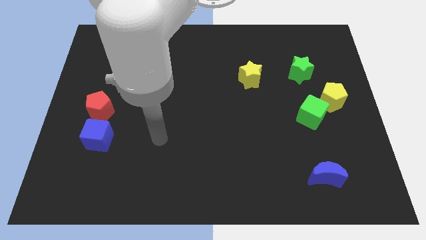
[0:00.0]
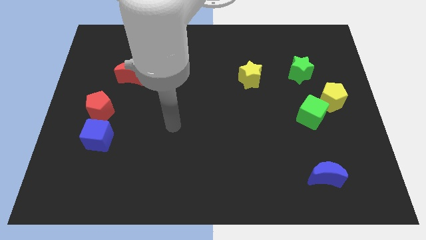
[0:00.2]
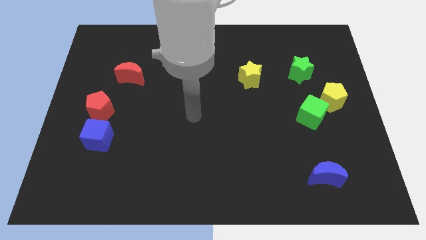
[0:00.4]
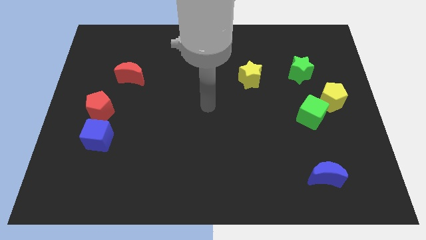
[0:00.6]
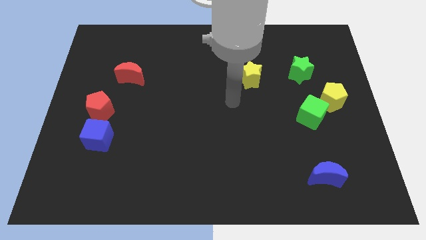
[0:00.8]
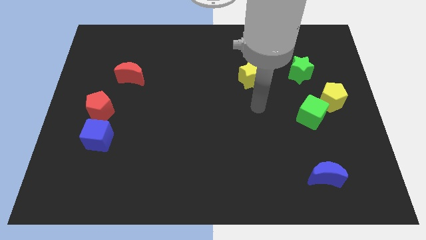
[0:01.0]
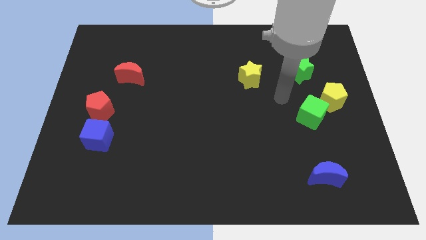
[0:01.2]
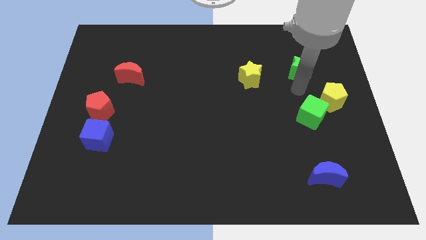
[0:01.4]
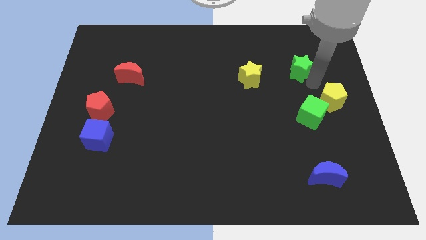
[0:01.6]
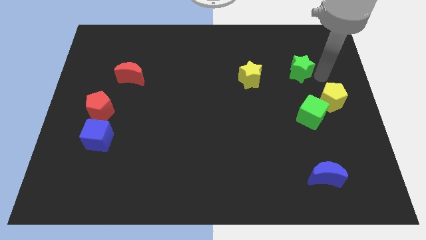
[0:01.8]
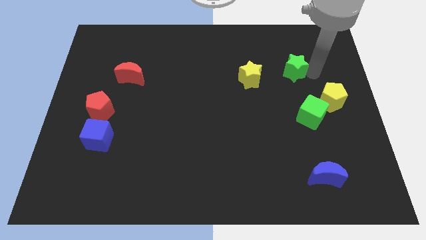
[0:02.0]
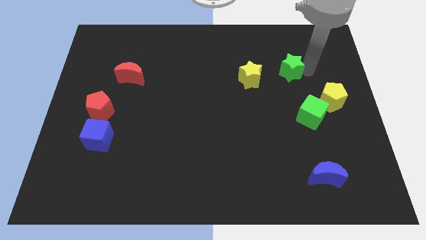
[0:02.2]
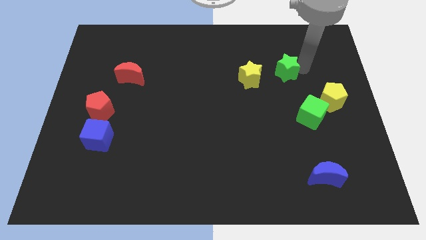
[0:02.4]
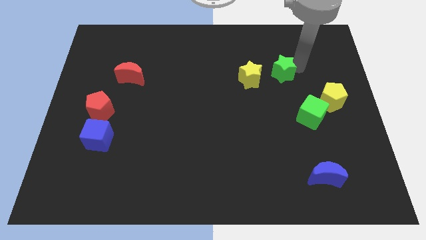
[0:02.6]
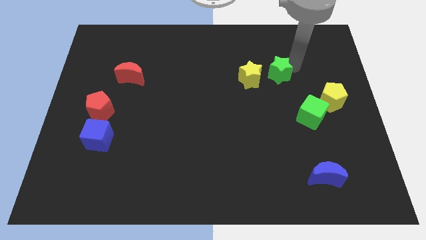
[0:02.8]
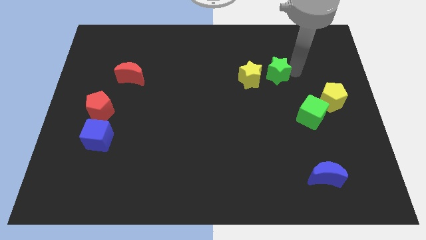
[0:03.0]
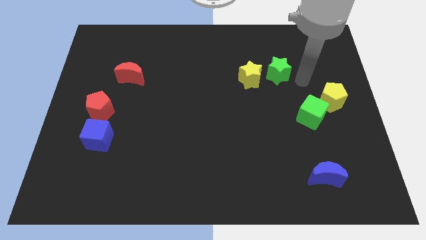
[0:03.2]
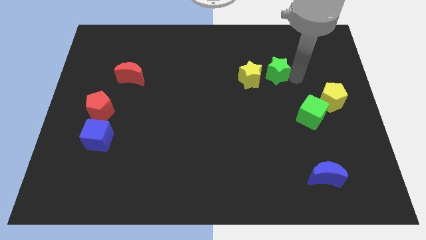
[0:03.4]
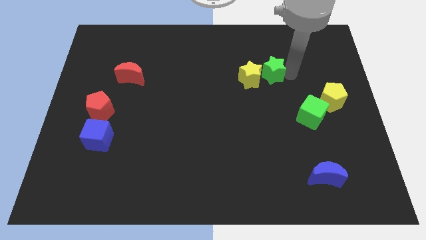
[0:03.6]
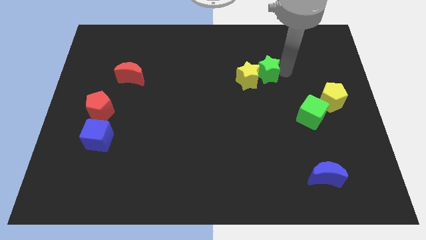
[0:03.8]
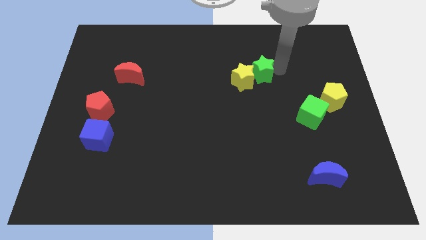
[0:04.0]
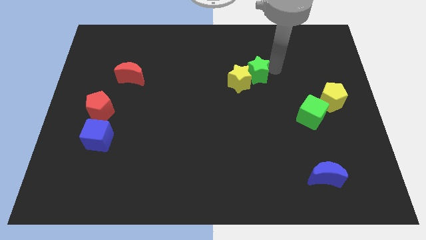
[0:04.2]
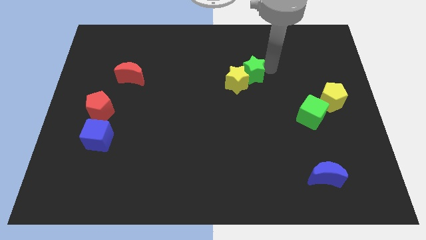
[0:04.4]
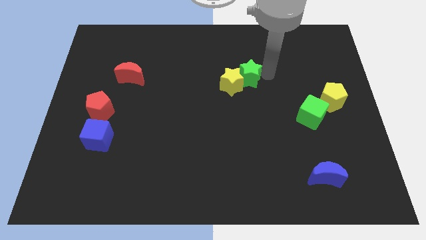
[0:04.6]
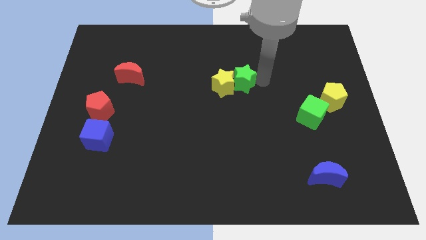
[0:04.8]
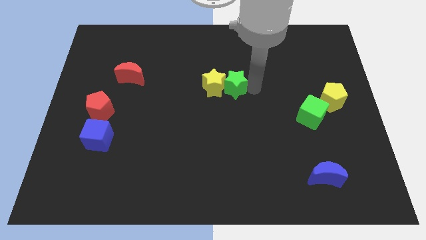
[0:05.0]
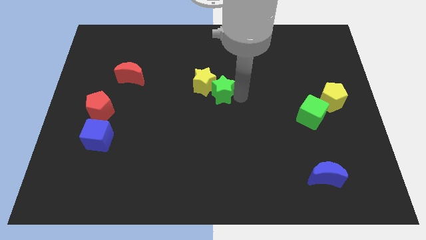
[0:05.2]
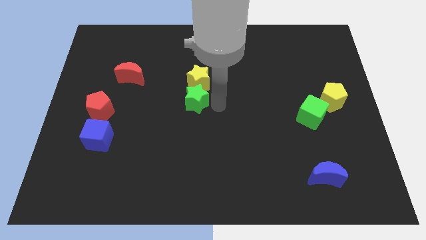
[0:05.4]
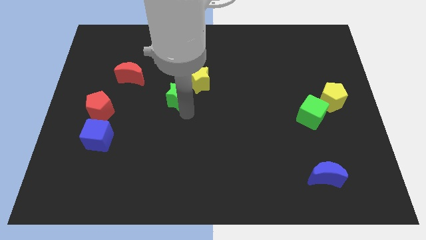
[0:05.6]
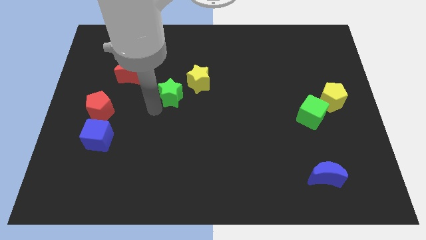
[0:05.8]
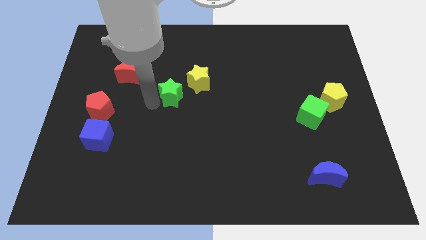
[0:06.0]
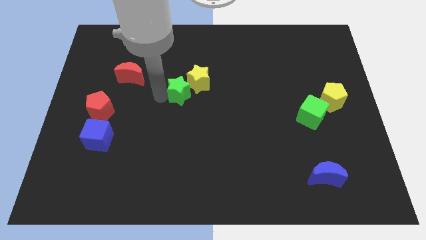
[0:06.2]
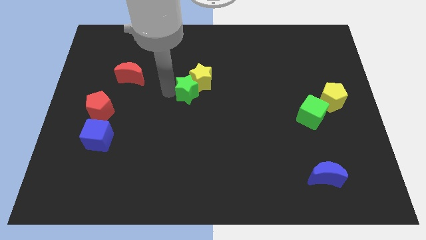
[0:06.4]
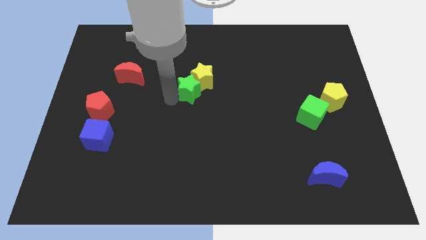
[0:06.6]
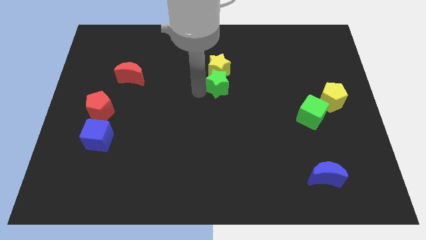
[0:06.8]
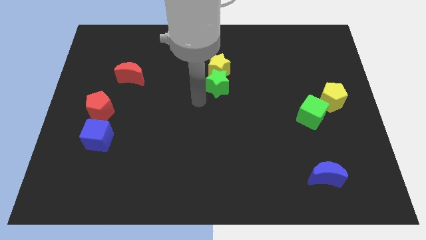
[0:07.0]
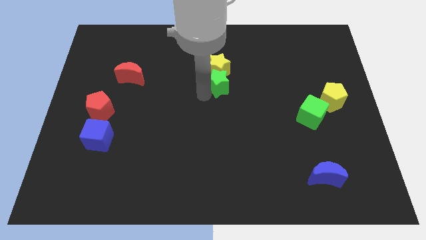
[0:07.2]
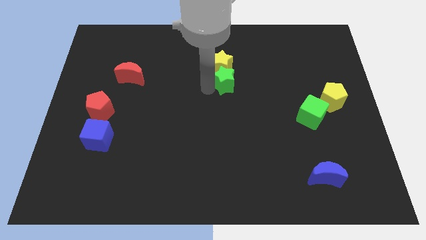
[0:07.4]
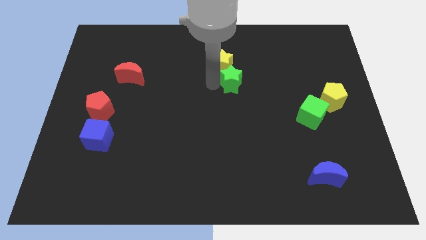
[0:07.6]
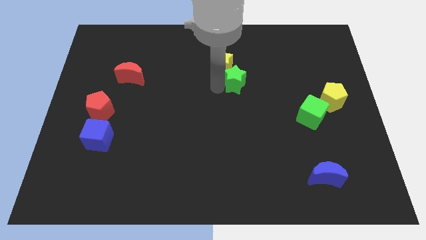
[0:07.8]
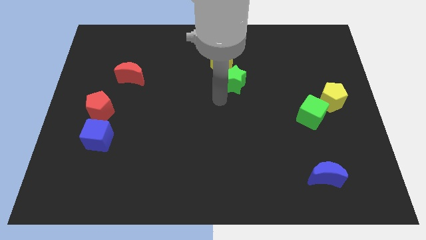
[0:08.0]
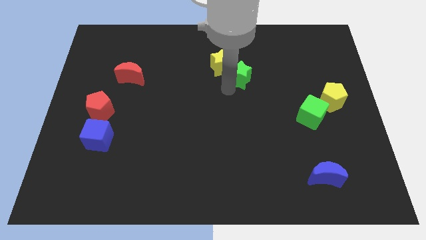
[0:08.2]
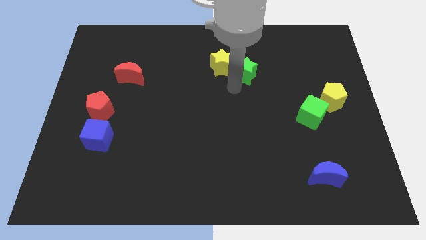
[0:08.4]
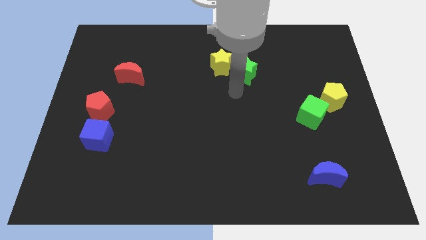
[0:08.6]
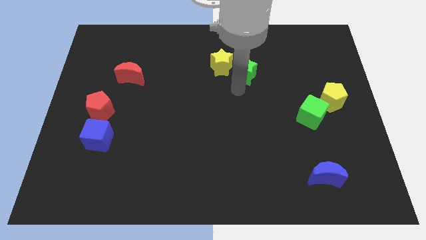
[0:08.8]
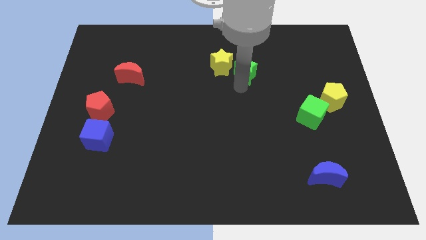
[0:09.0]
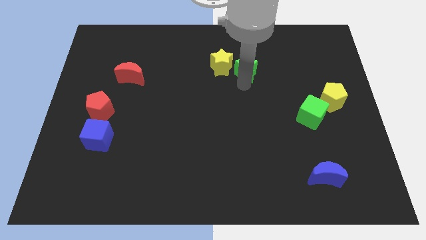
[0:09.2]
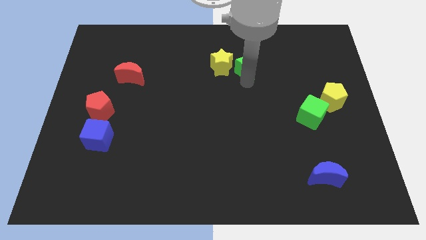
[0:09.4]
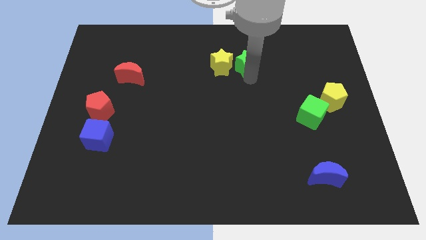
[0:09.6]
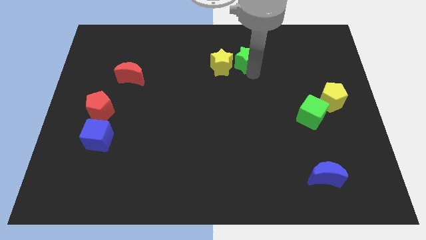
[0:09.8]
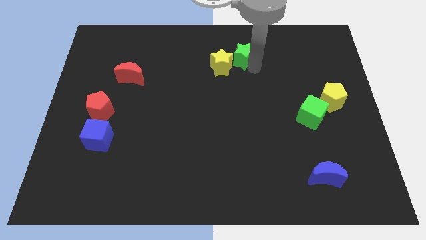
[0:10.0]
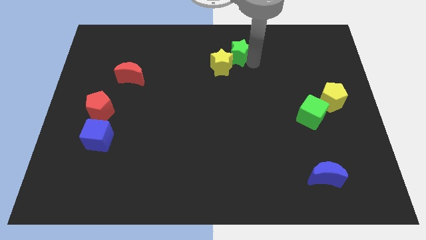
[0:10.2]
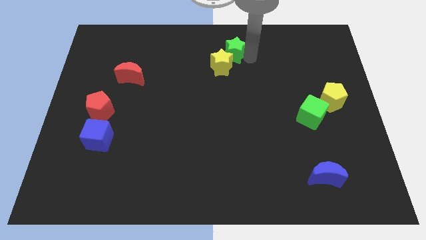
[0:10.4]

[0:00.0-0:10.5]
put the green star to the top side

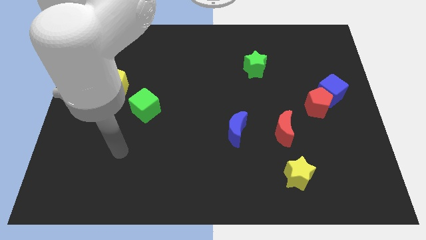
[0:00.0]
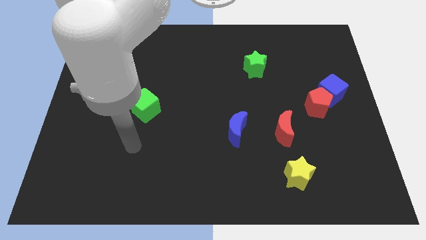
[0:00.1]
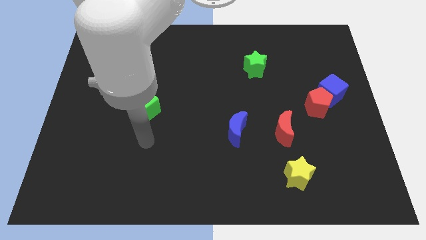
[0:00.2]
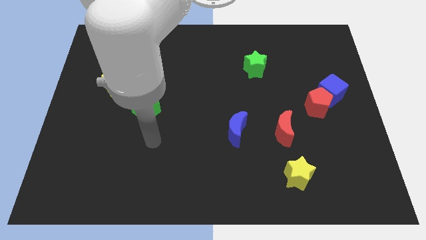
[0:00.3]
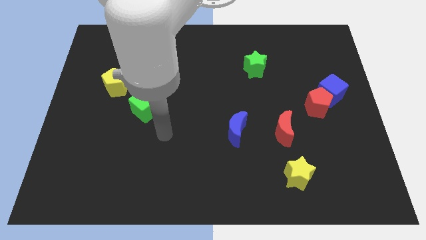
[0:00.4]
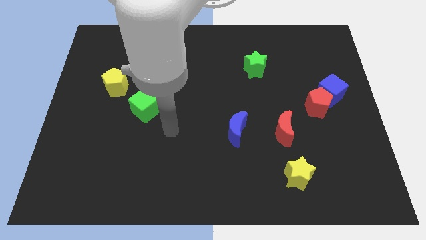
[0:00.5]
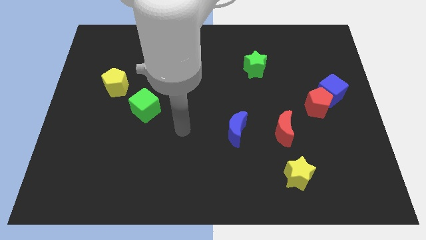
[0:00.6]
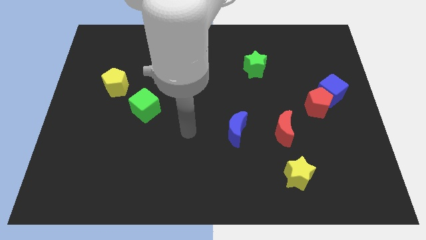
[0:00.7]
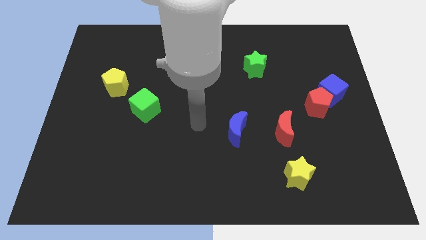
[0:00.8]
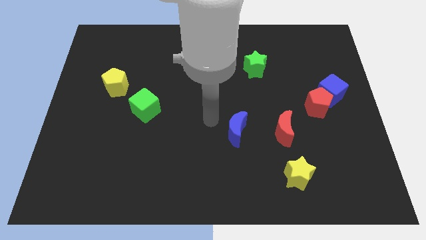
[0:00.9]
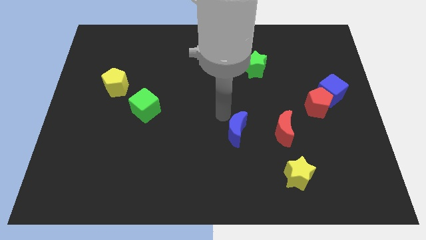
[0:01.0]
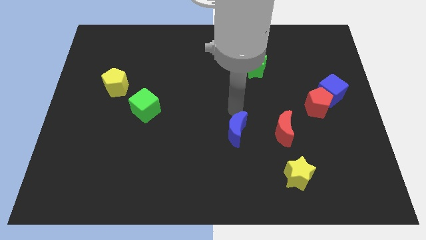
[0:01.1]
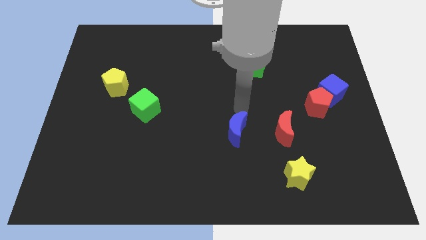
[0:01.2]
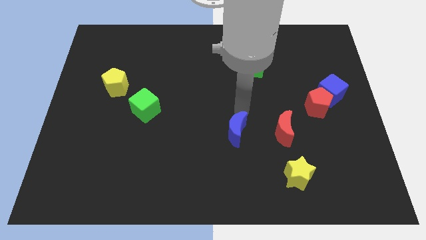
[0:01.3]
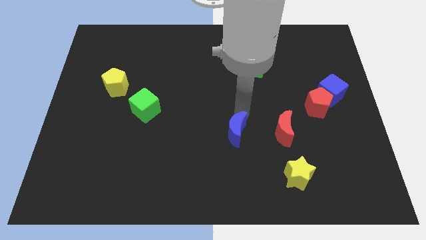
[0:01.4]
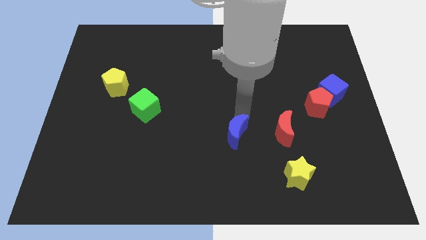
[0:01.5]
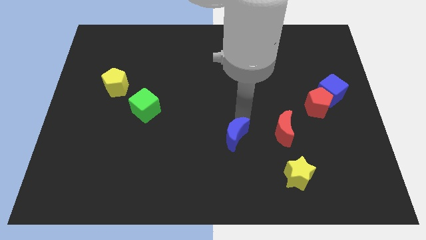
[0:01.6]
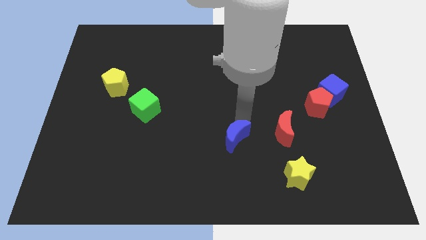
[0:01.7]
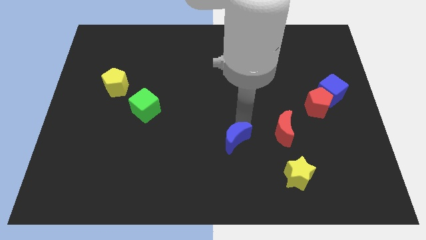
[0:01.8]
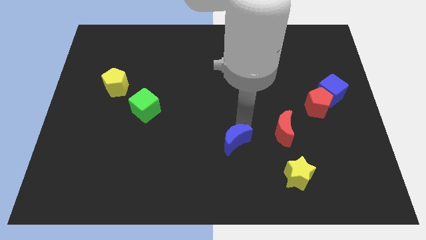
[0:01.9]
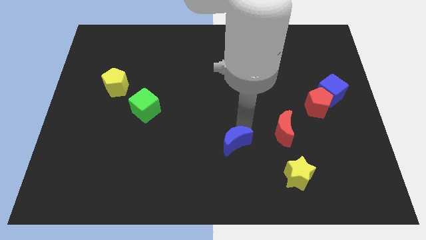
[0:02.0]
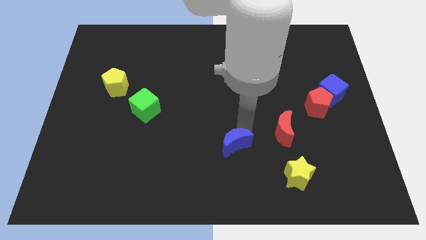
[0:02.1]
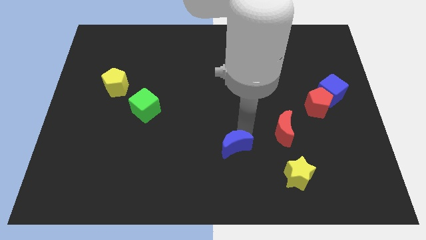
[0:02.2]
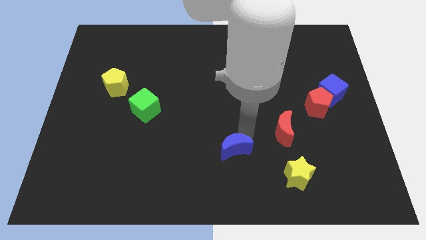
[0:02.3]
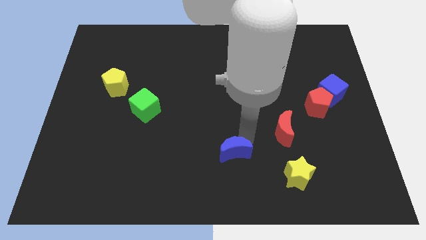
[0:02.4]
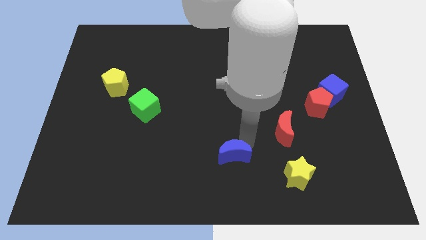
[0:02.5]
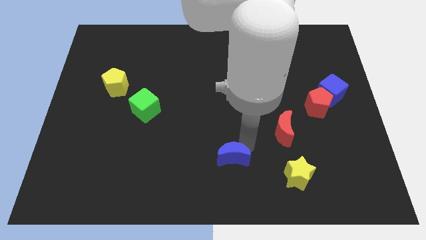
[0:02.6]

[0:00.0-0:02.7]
slide the blue moon to the bottom side

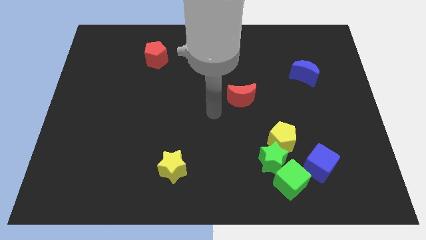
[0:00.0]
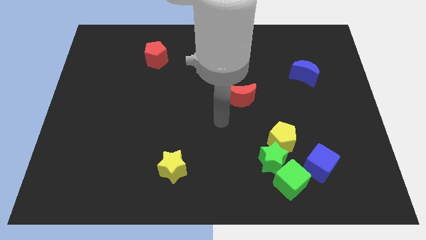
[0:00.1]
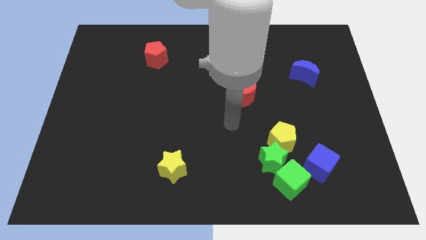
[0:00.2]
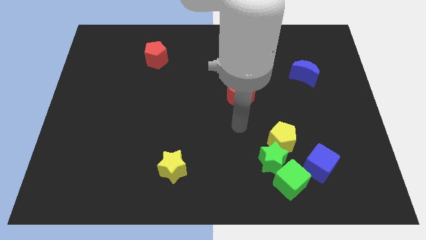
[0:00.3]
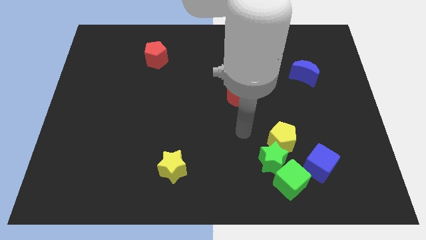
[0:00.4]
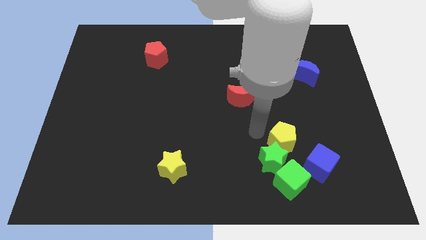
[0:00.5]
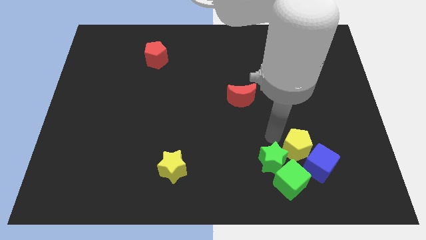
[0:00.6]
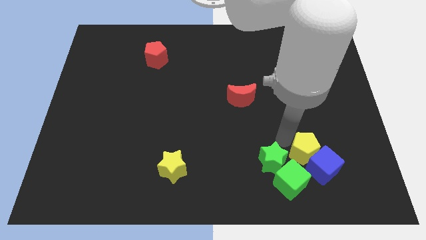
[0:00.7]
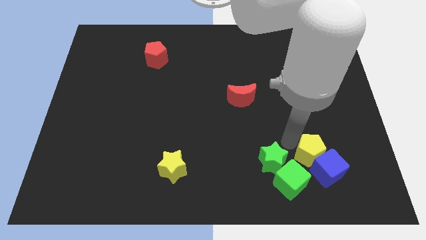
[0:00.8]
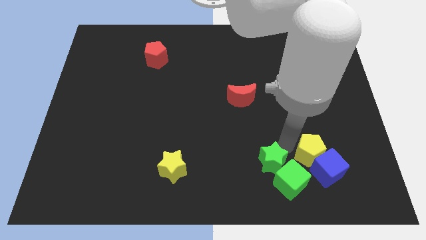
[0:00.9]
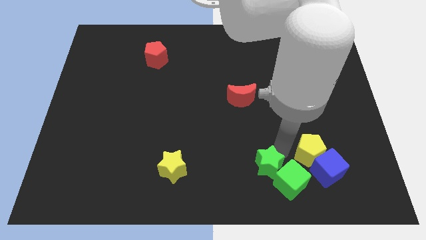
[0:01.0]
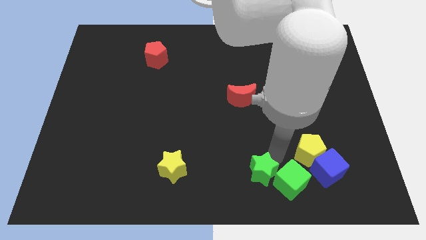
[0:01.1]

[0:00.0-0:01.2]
slide the green star to the bottom side
